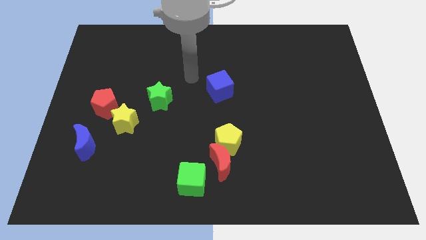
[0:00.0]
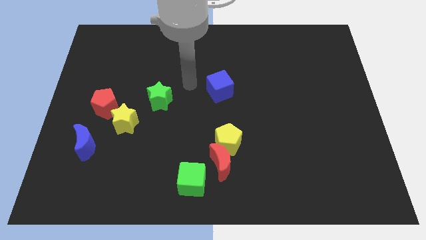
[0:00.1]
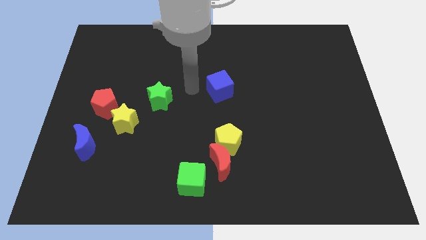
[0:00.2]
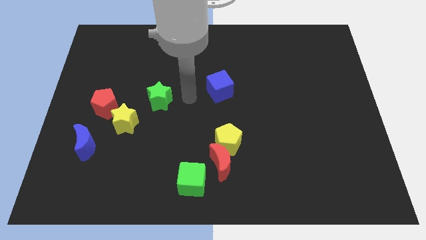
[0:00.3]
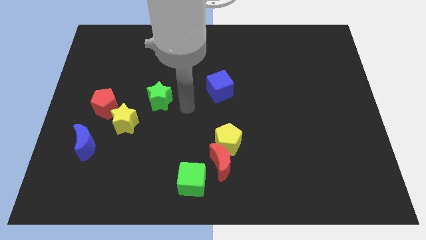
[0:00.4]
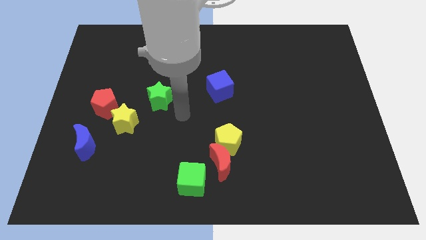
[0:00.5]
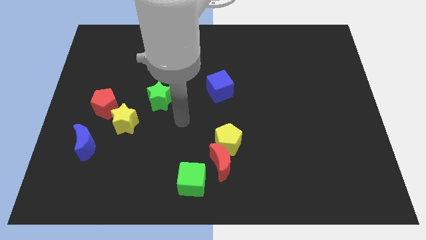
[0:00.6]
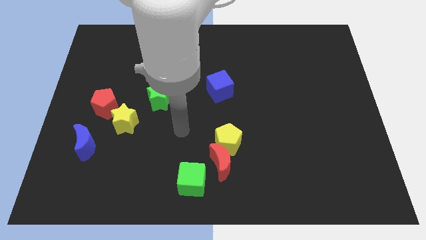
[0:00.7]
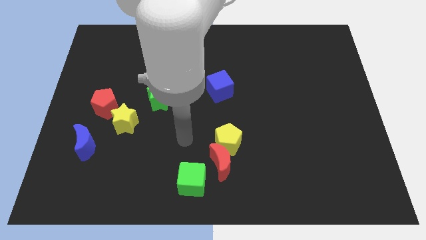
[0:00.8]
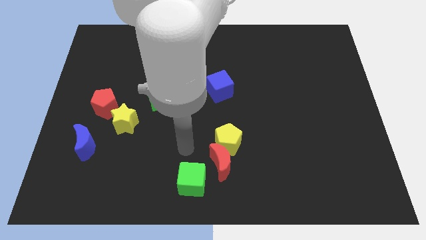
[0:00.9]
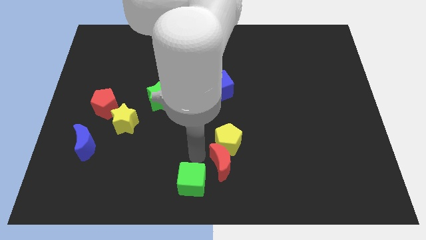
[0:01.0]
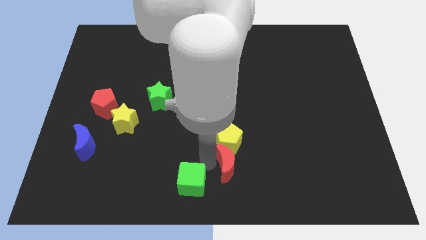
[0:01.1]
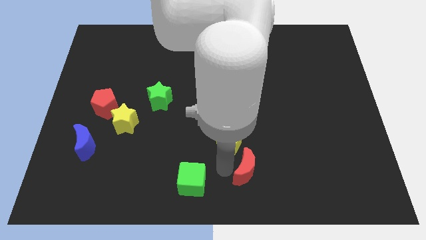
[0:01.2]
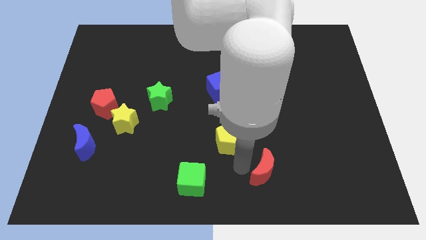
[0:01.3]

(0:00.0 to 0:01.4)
separate the yellow pentagon from the red moon

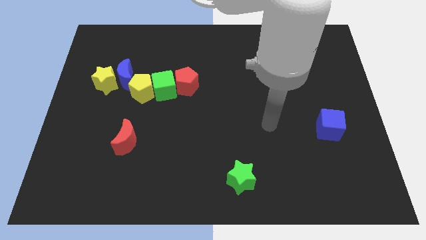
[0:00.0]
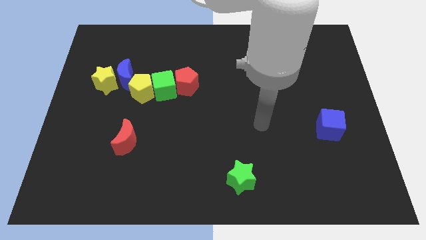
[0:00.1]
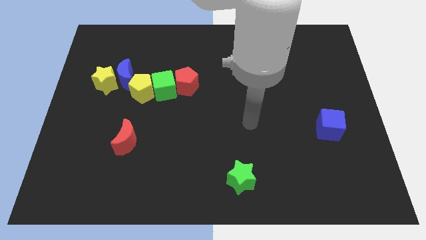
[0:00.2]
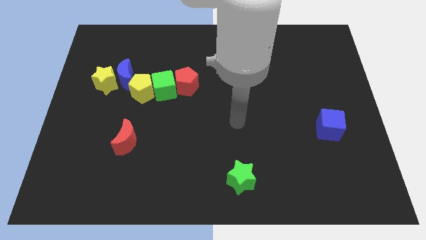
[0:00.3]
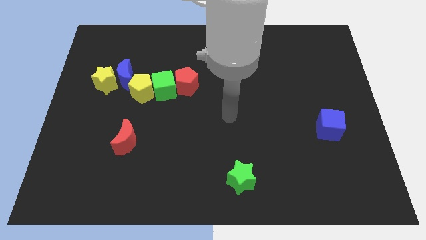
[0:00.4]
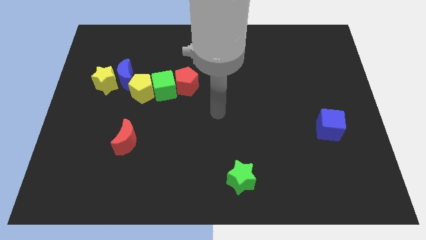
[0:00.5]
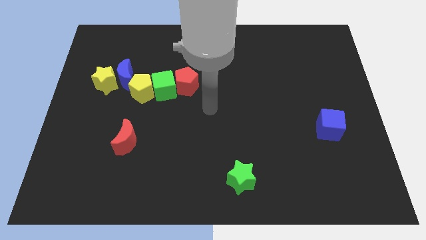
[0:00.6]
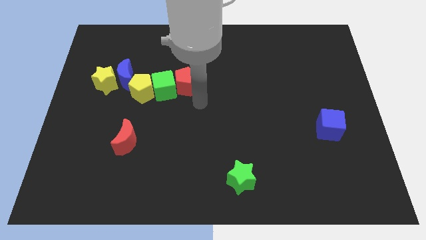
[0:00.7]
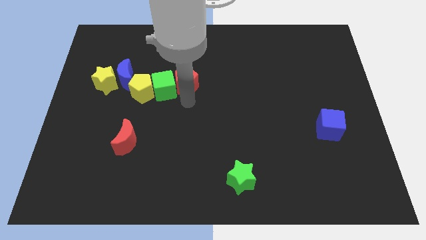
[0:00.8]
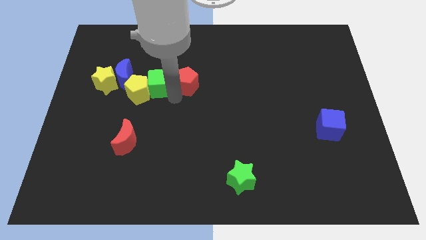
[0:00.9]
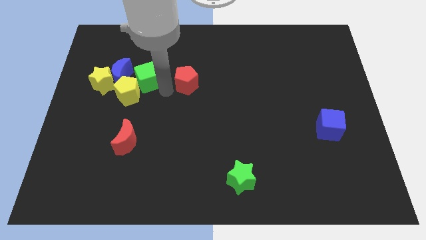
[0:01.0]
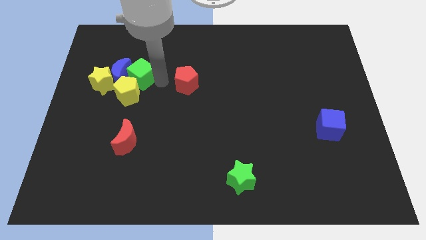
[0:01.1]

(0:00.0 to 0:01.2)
move the red pentagon away from the green cube

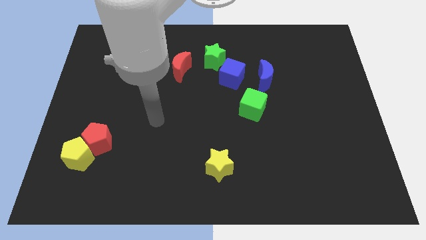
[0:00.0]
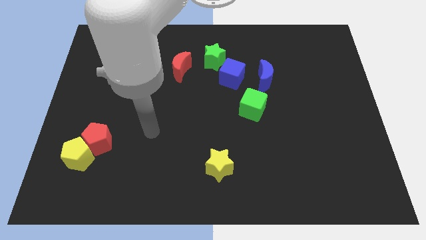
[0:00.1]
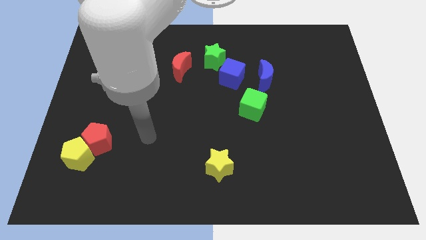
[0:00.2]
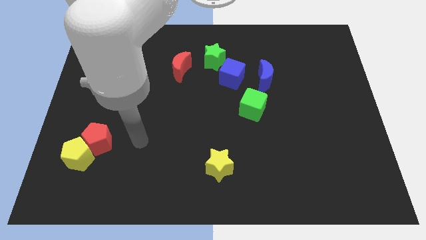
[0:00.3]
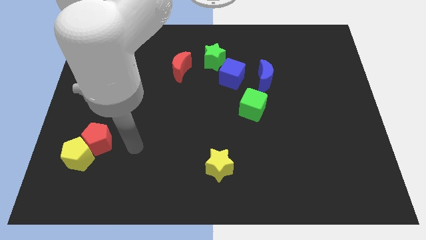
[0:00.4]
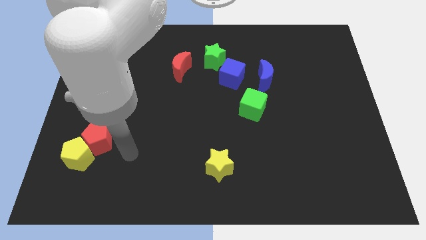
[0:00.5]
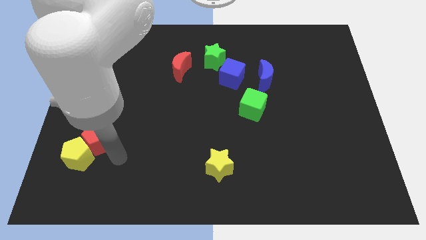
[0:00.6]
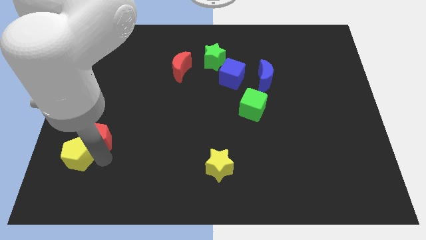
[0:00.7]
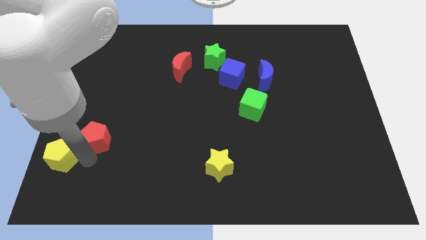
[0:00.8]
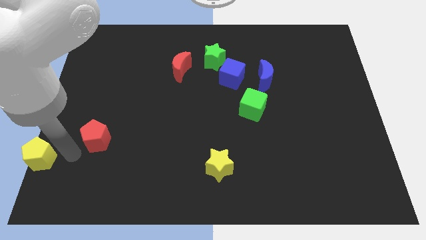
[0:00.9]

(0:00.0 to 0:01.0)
pull the red pentagon apart from the yellow pentagon

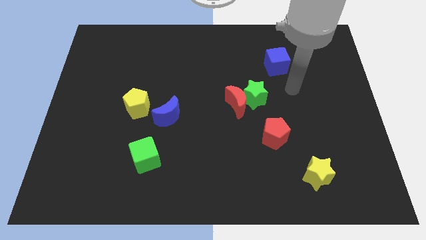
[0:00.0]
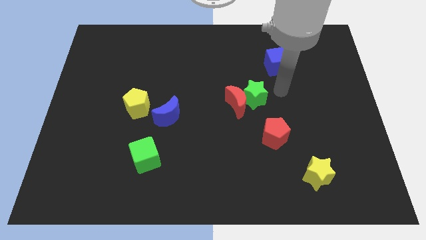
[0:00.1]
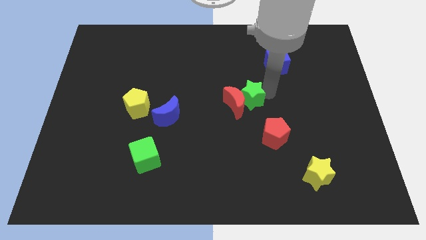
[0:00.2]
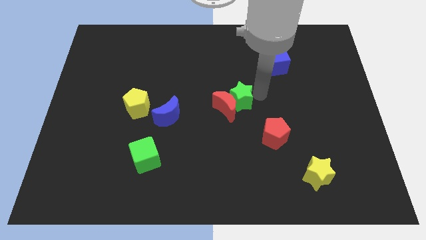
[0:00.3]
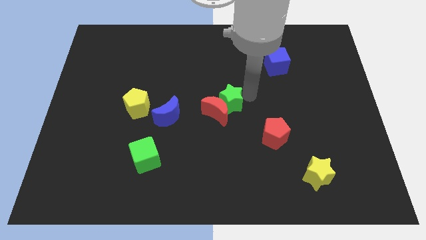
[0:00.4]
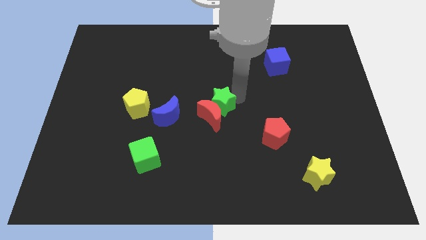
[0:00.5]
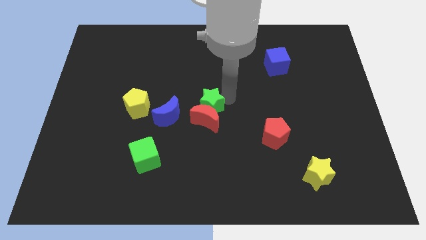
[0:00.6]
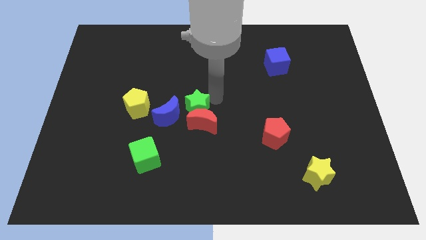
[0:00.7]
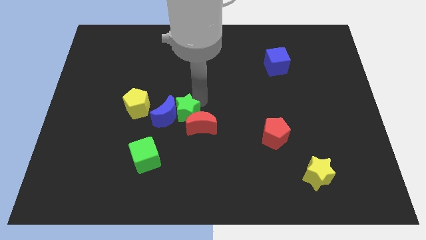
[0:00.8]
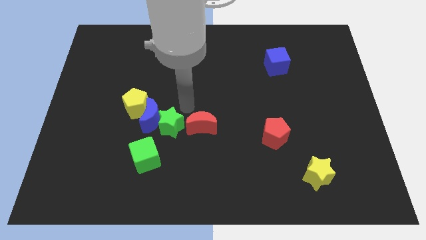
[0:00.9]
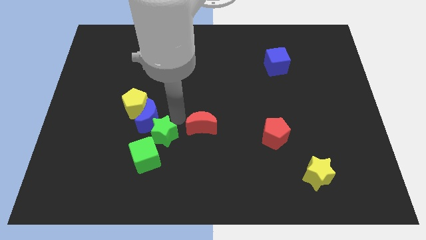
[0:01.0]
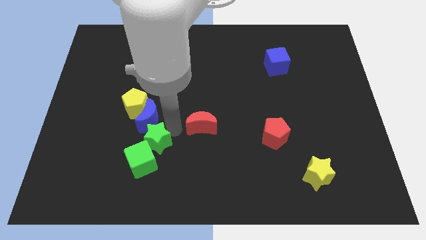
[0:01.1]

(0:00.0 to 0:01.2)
pull the red moon apart from the green star

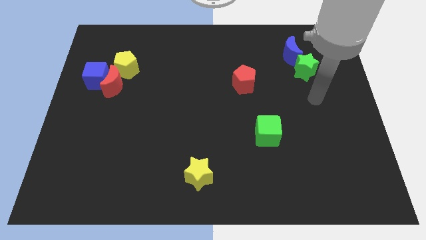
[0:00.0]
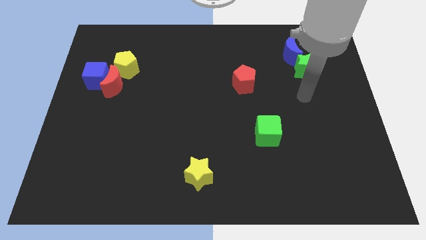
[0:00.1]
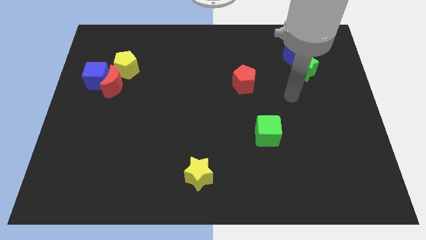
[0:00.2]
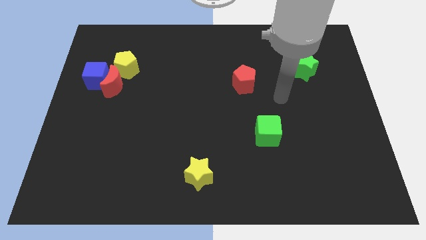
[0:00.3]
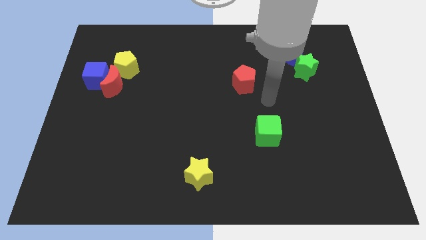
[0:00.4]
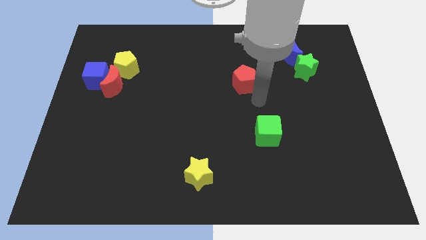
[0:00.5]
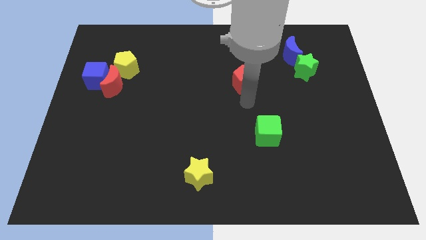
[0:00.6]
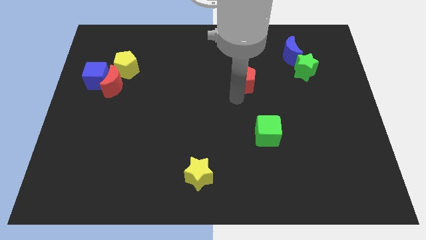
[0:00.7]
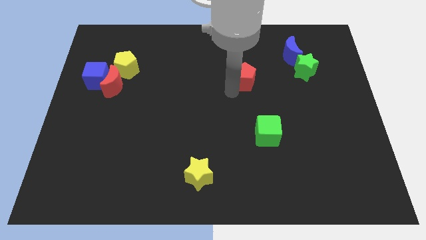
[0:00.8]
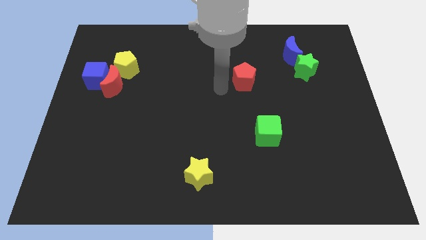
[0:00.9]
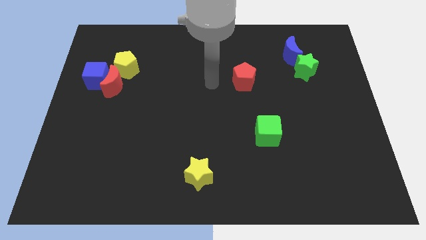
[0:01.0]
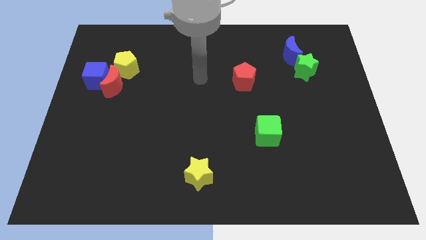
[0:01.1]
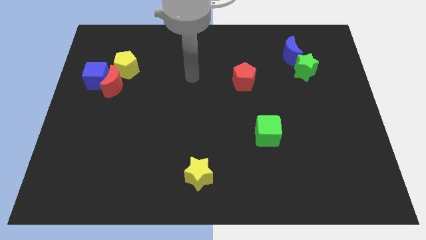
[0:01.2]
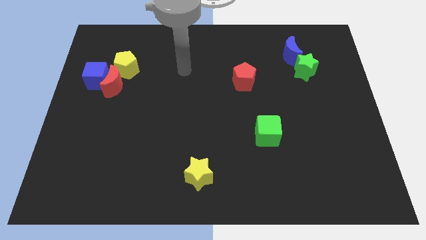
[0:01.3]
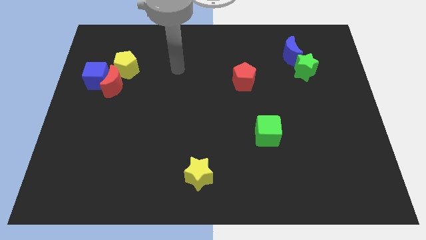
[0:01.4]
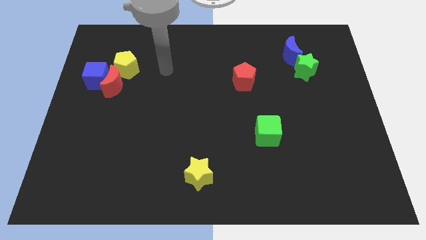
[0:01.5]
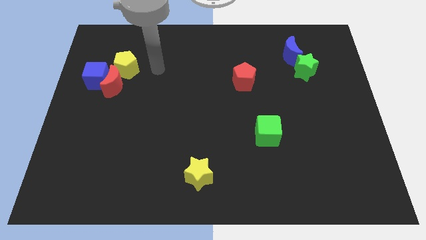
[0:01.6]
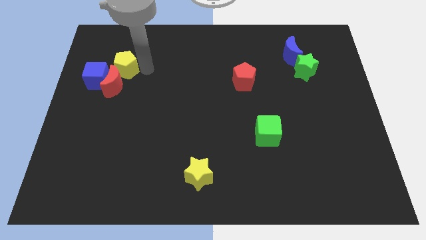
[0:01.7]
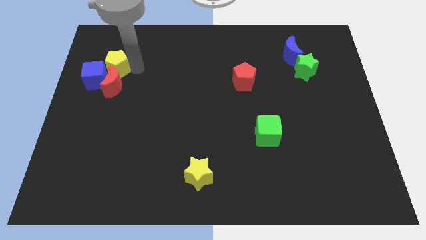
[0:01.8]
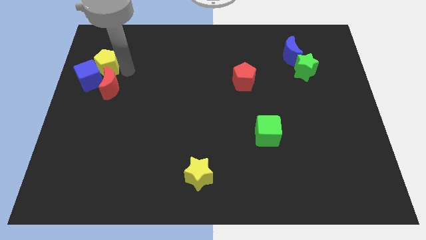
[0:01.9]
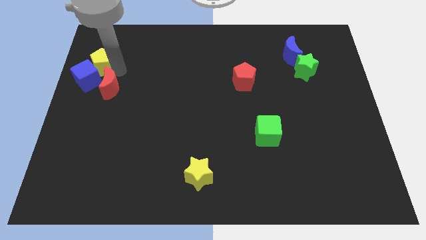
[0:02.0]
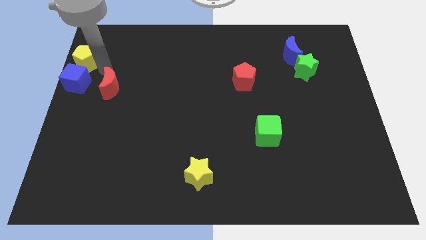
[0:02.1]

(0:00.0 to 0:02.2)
separate the red moon from the blue cube and yellow pentagon

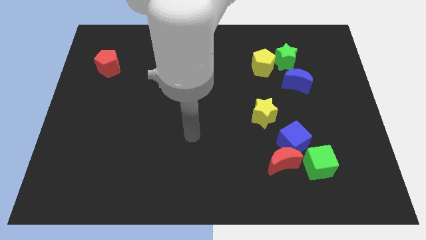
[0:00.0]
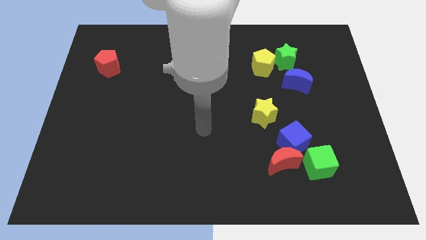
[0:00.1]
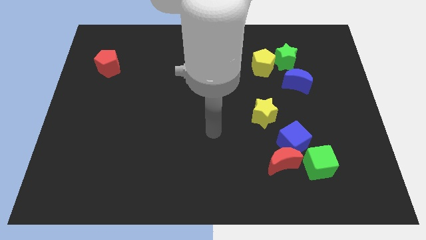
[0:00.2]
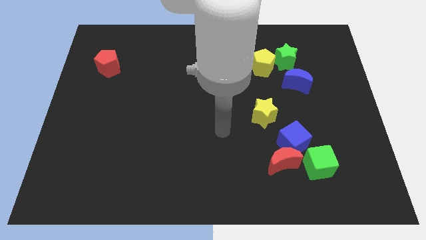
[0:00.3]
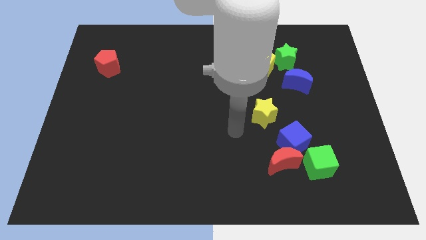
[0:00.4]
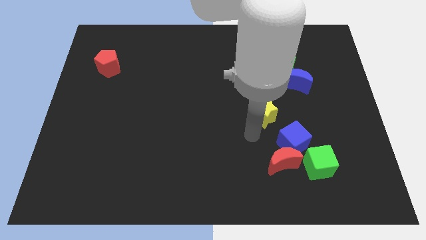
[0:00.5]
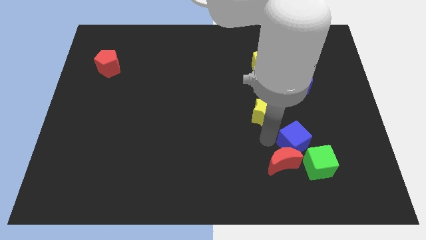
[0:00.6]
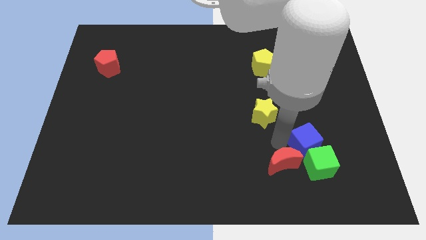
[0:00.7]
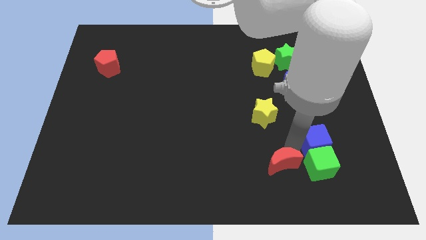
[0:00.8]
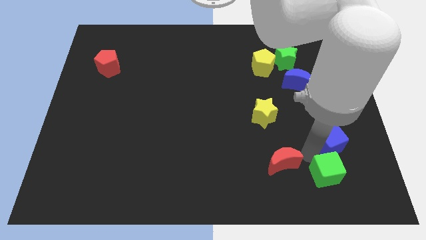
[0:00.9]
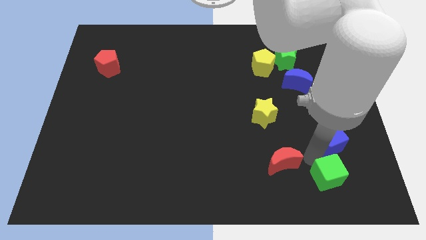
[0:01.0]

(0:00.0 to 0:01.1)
move the red moon away from the blue cube and green cube

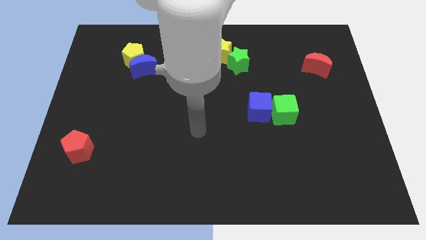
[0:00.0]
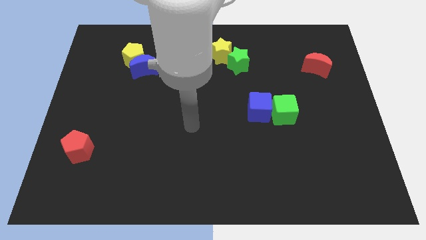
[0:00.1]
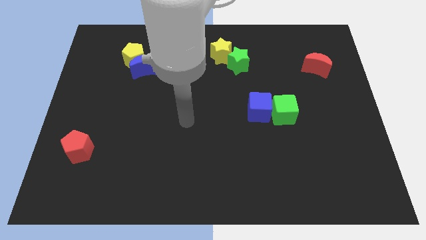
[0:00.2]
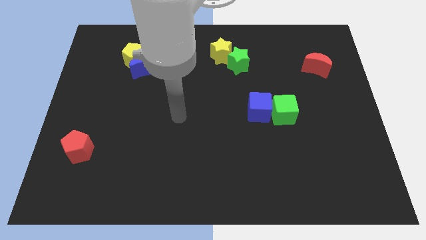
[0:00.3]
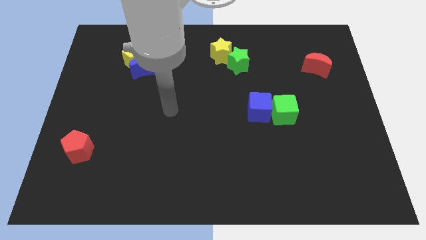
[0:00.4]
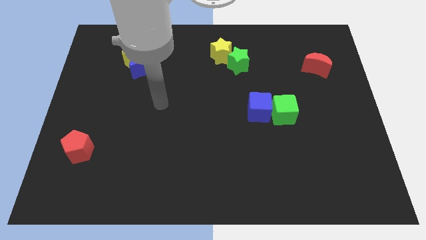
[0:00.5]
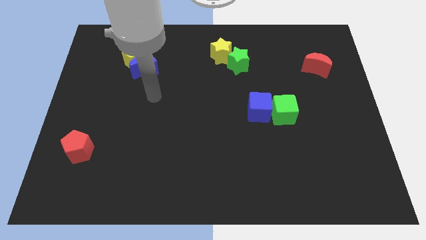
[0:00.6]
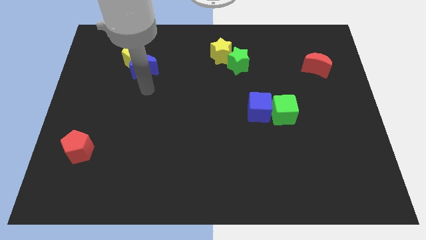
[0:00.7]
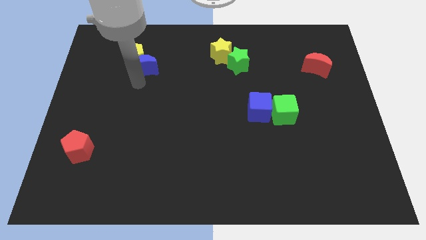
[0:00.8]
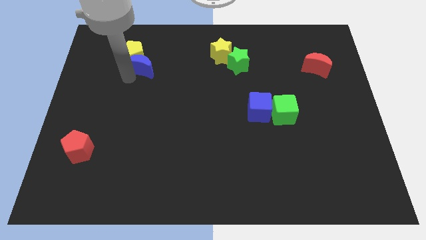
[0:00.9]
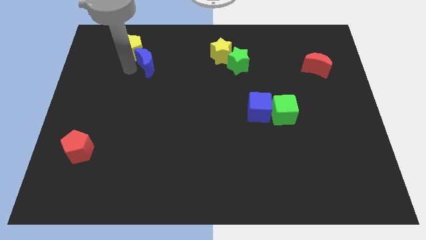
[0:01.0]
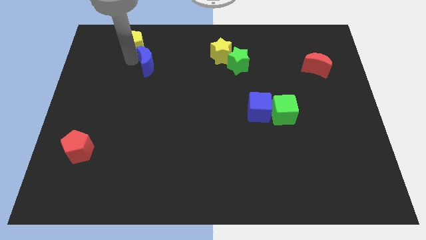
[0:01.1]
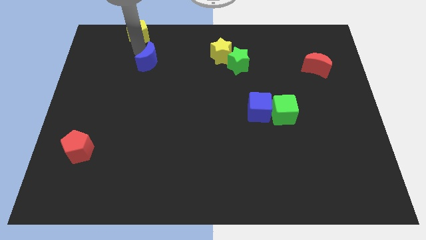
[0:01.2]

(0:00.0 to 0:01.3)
pull the blue moon apart from the yellow pentagon
